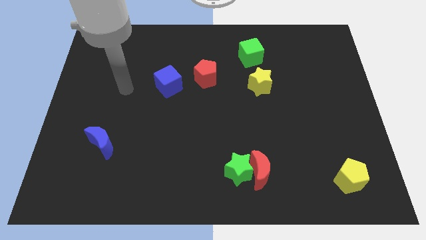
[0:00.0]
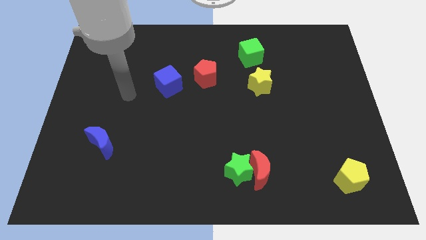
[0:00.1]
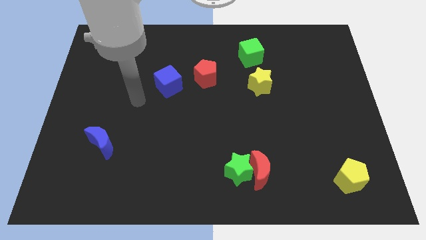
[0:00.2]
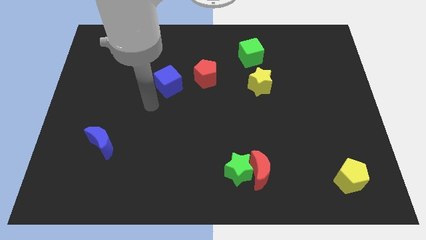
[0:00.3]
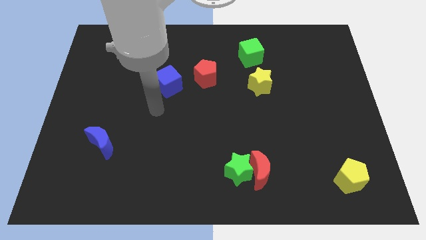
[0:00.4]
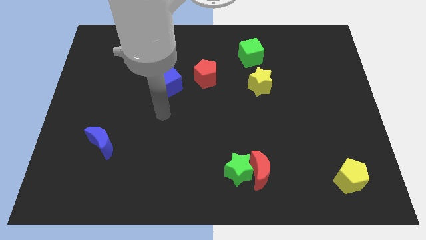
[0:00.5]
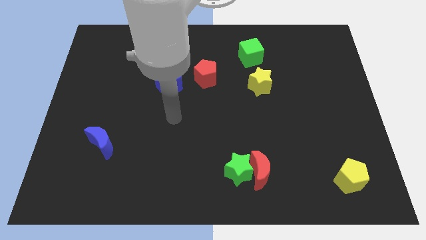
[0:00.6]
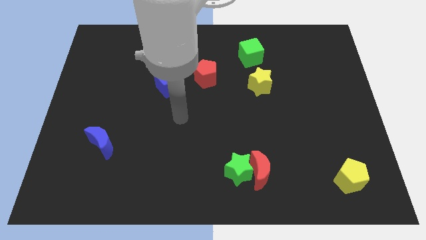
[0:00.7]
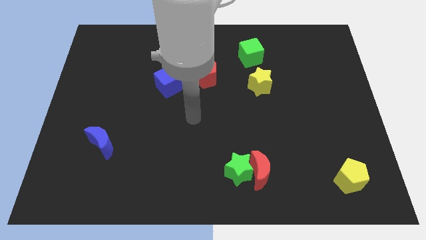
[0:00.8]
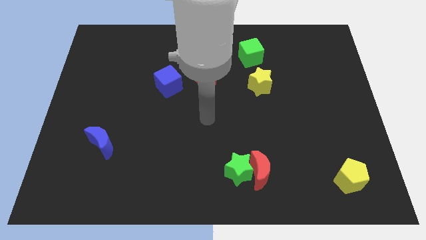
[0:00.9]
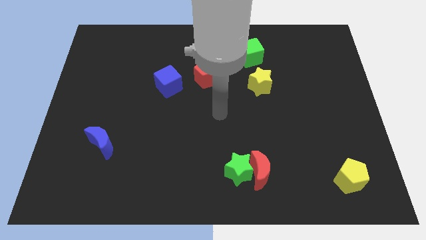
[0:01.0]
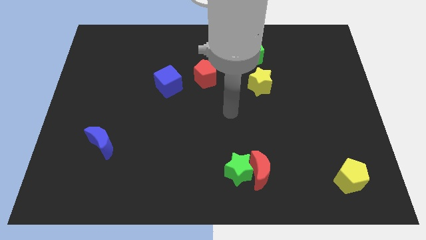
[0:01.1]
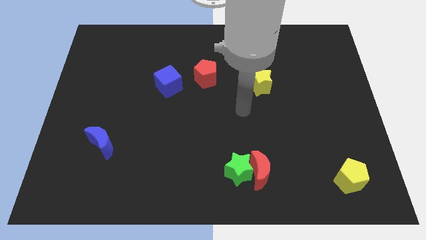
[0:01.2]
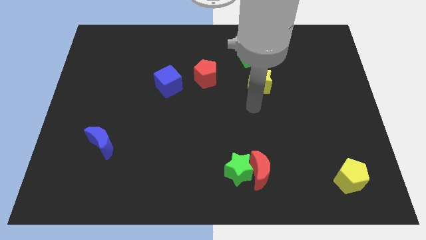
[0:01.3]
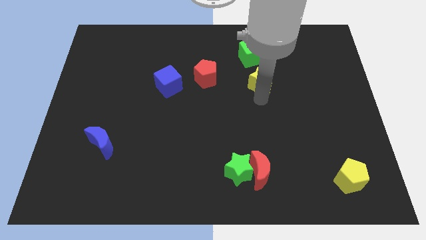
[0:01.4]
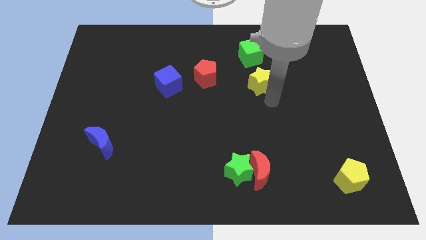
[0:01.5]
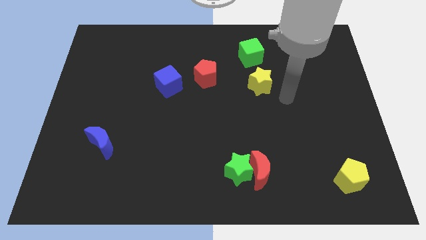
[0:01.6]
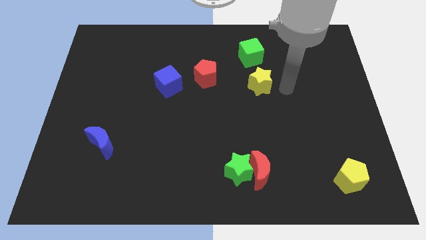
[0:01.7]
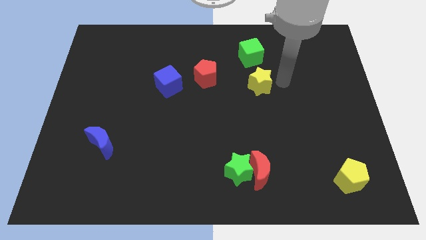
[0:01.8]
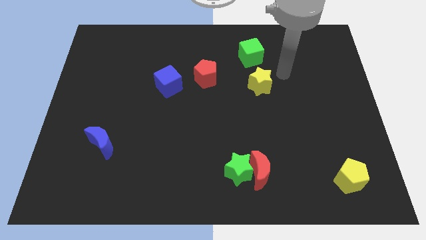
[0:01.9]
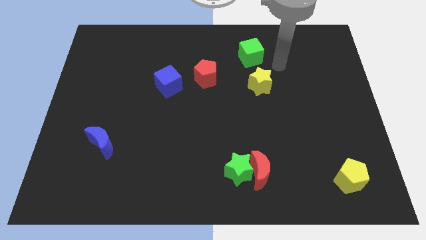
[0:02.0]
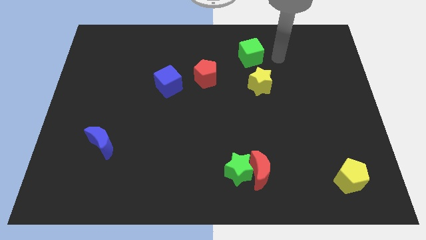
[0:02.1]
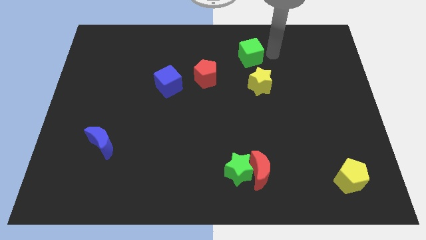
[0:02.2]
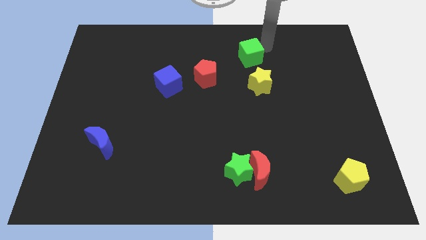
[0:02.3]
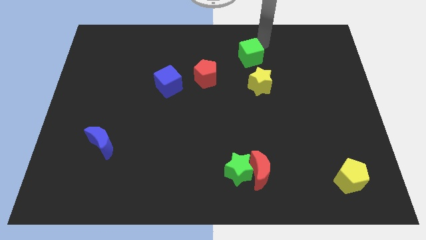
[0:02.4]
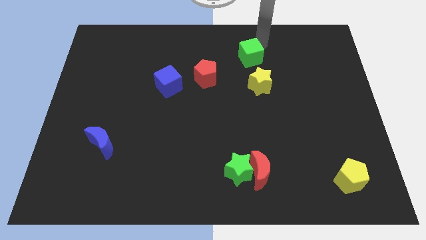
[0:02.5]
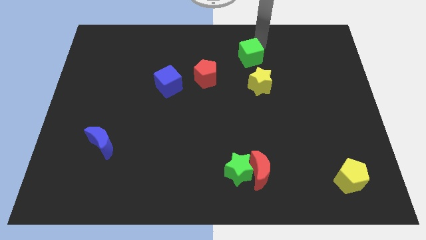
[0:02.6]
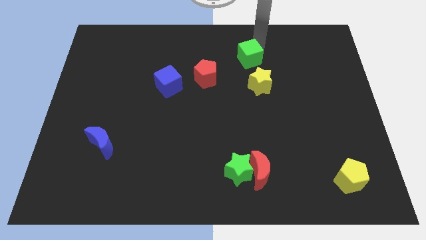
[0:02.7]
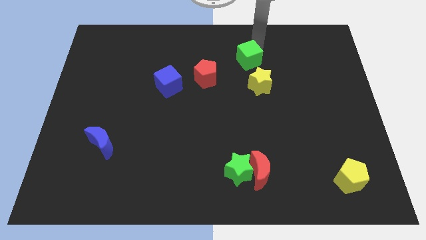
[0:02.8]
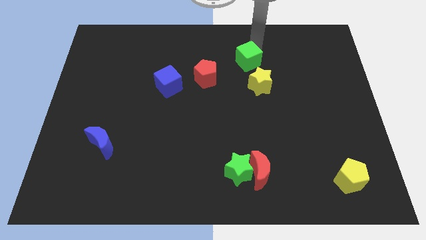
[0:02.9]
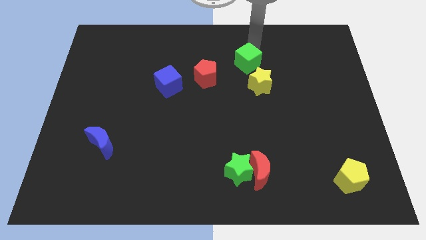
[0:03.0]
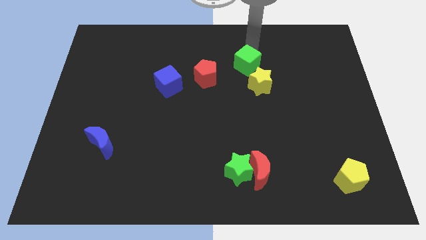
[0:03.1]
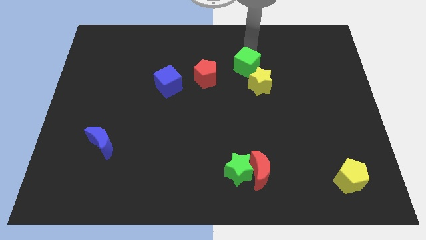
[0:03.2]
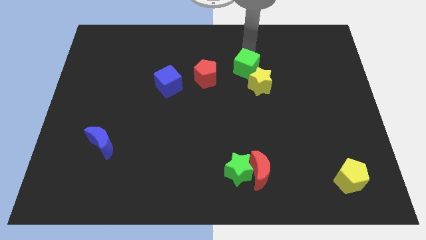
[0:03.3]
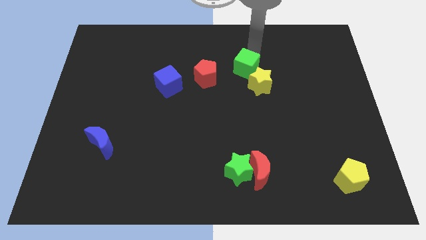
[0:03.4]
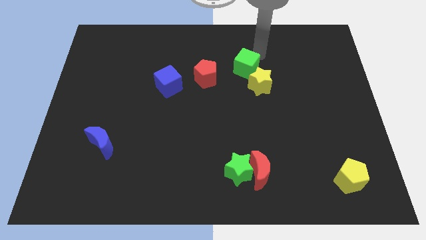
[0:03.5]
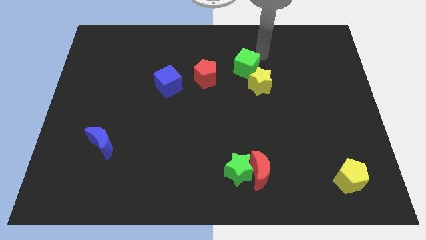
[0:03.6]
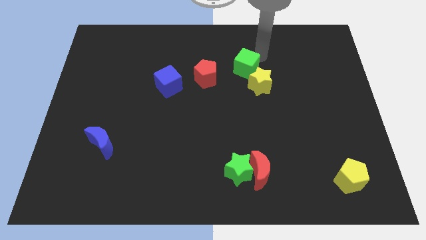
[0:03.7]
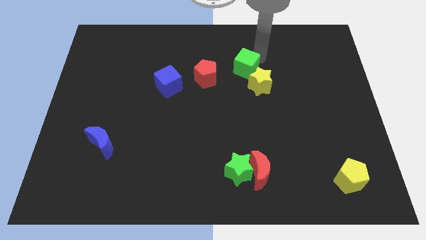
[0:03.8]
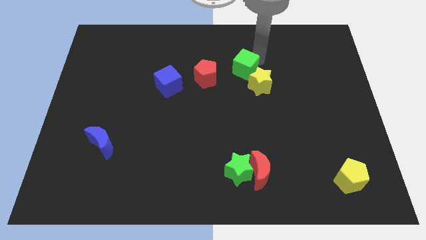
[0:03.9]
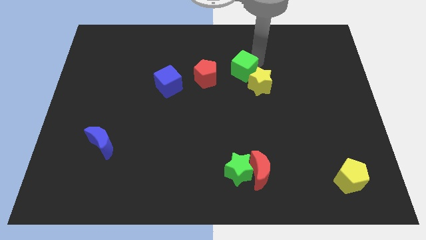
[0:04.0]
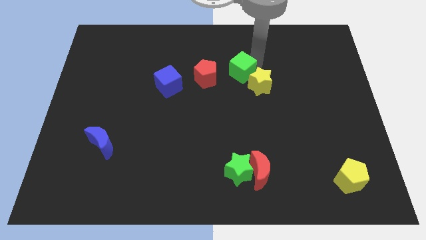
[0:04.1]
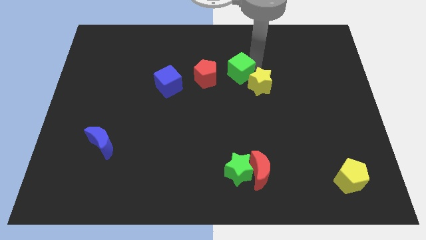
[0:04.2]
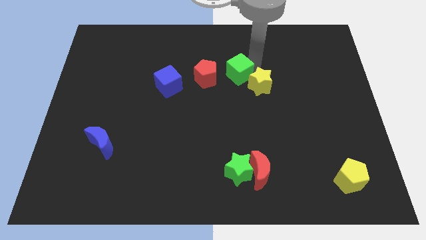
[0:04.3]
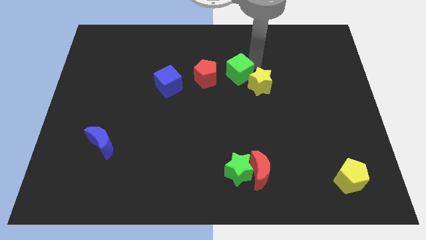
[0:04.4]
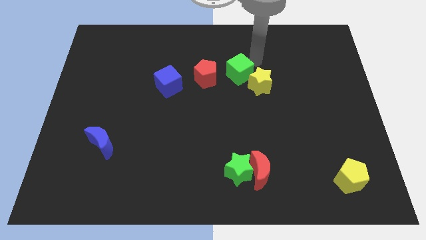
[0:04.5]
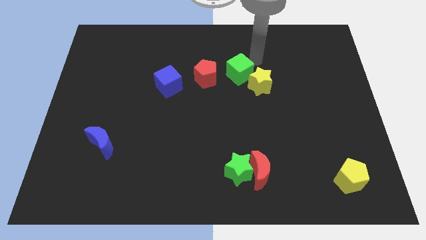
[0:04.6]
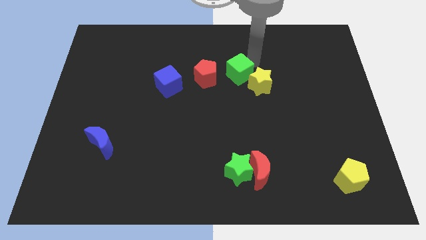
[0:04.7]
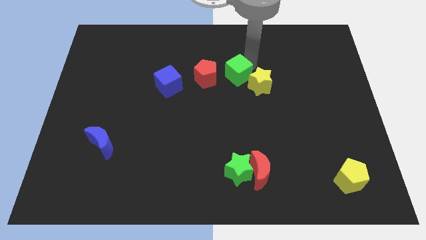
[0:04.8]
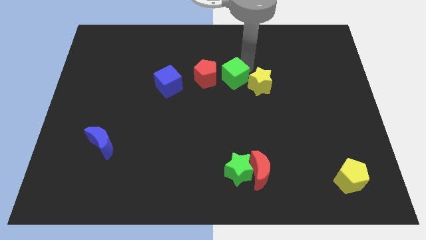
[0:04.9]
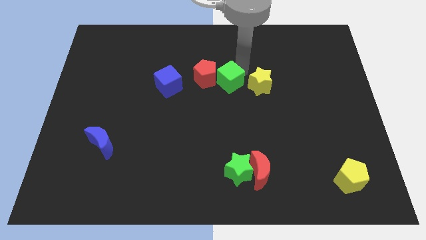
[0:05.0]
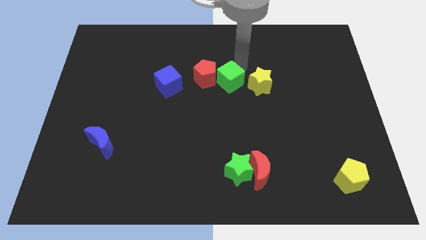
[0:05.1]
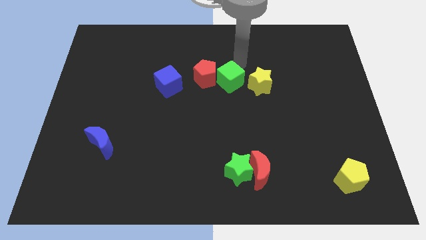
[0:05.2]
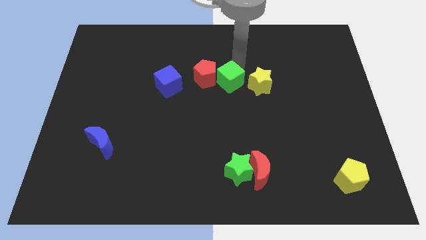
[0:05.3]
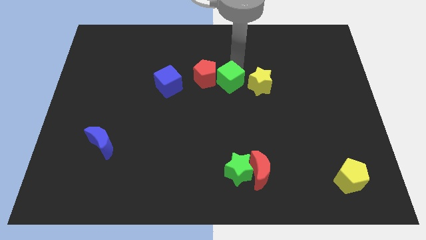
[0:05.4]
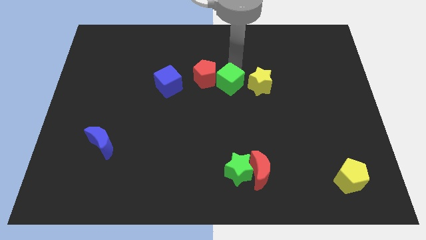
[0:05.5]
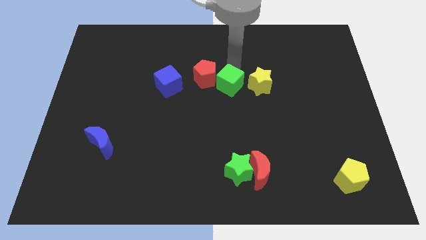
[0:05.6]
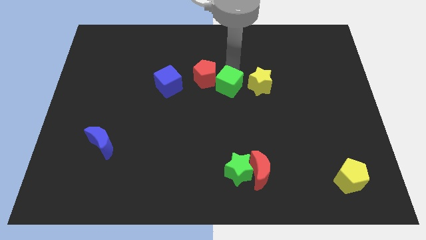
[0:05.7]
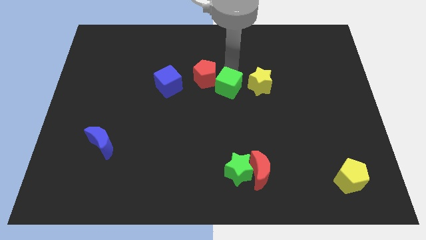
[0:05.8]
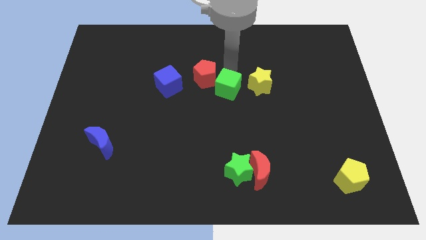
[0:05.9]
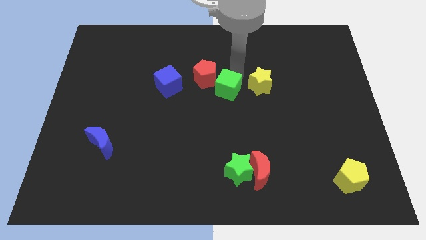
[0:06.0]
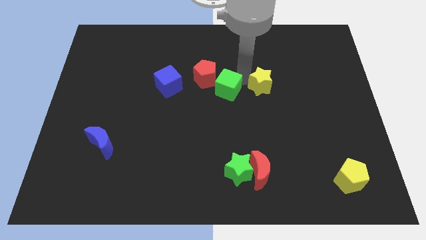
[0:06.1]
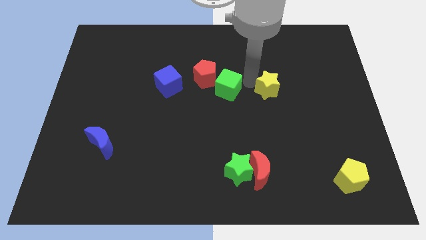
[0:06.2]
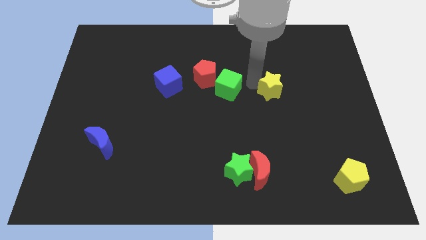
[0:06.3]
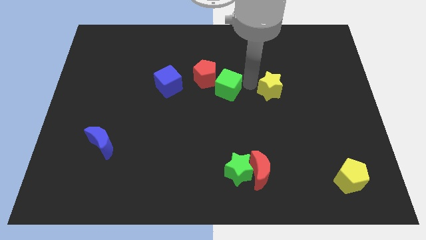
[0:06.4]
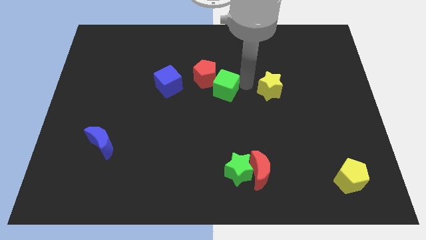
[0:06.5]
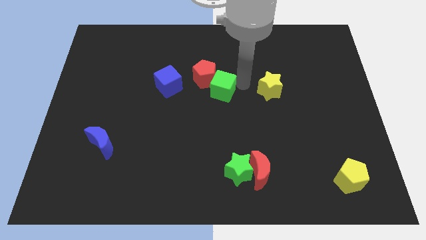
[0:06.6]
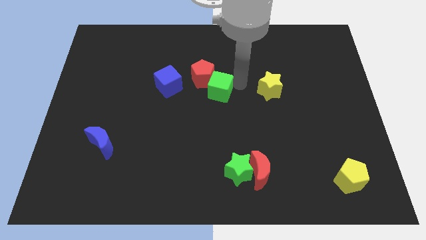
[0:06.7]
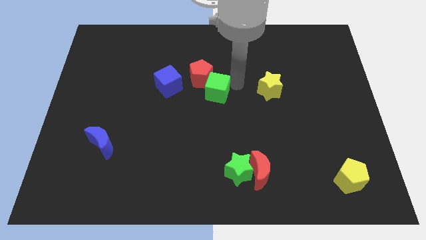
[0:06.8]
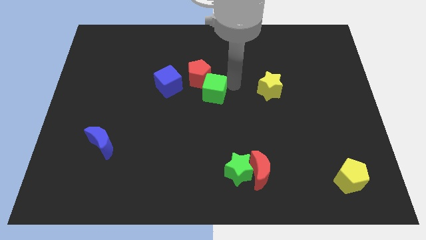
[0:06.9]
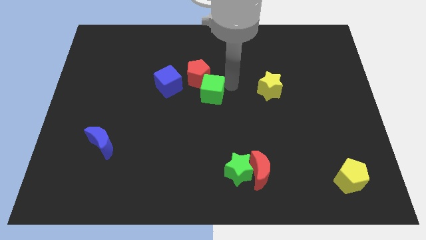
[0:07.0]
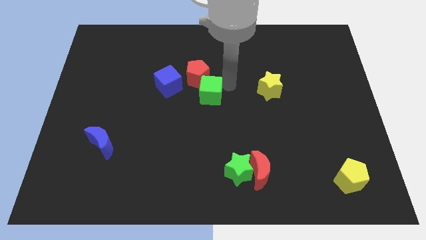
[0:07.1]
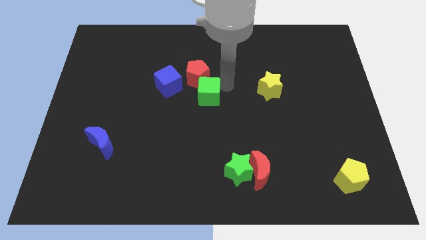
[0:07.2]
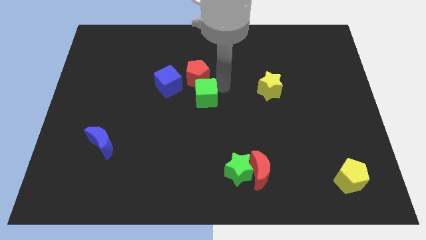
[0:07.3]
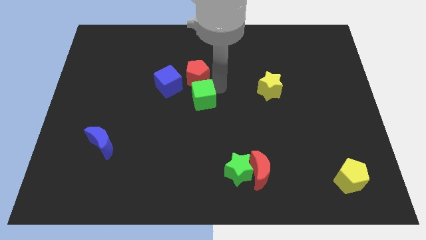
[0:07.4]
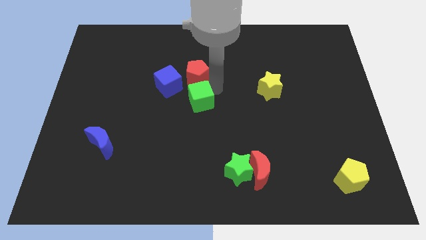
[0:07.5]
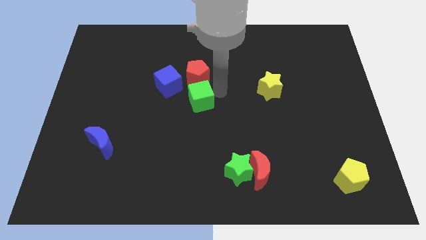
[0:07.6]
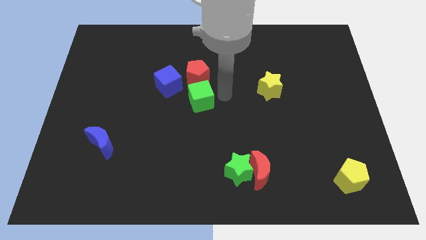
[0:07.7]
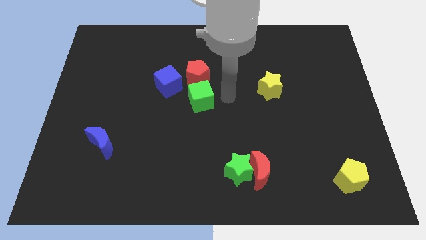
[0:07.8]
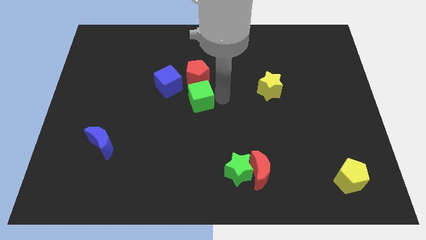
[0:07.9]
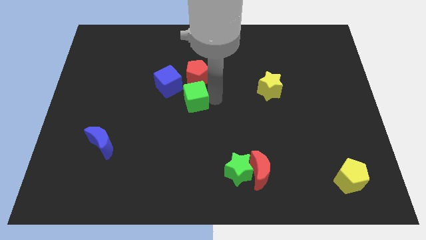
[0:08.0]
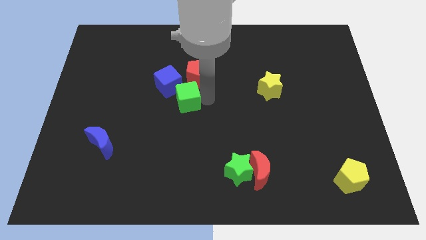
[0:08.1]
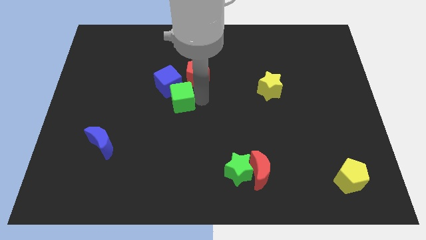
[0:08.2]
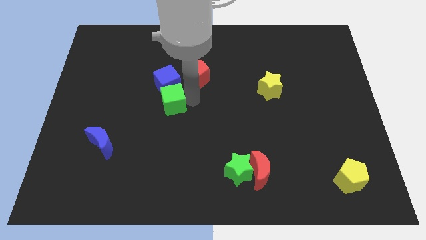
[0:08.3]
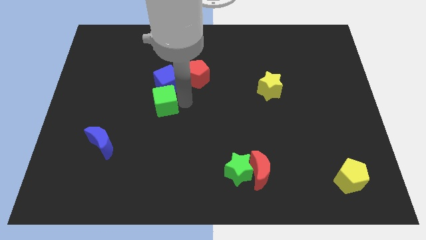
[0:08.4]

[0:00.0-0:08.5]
push the green cube to the bottom left of the blue cube
